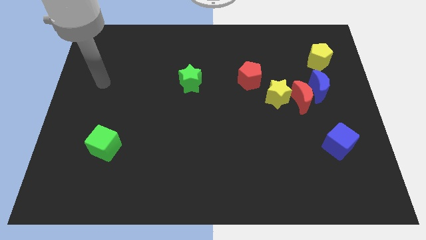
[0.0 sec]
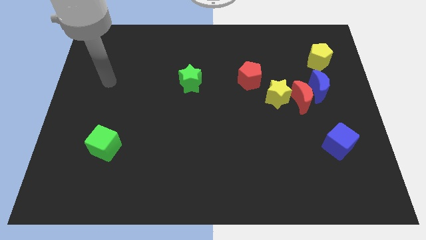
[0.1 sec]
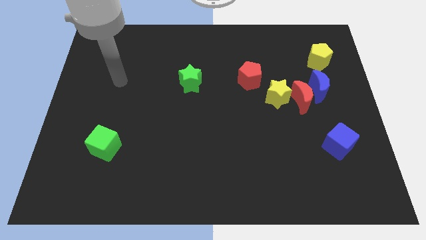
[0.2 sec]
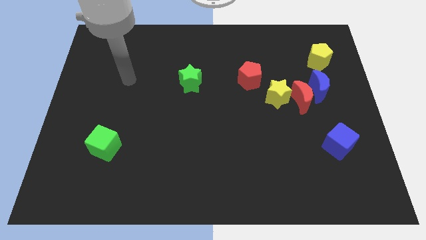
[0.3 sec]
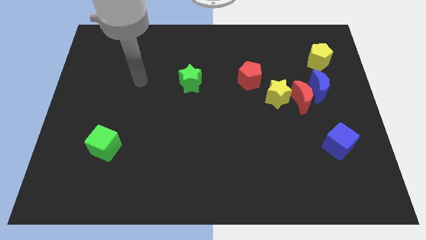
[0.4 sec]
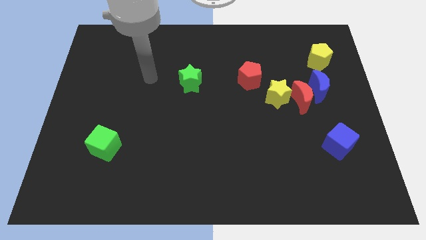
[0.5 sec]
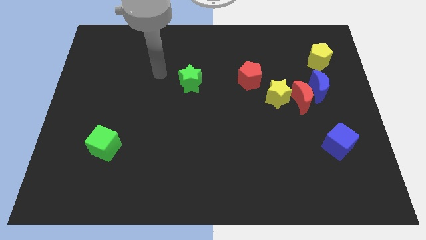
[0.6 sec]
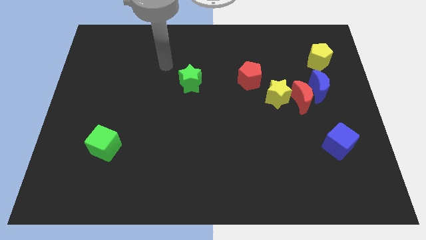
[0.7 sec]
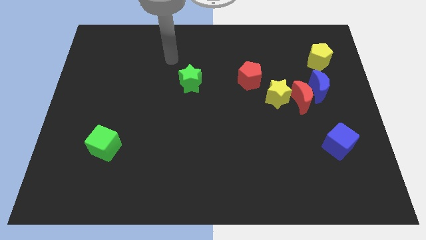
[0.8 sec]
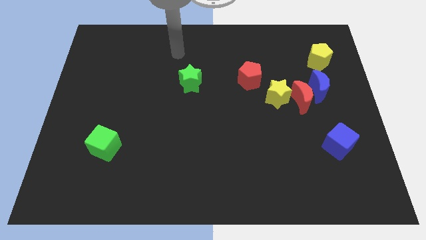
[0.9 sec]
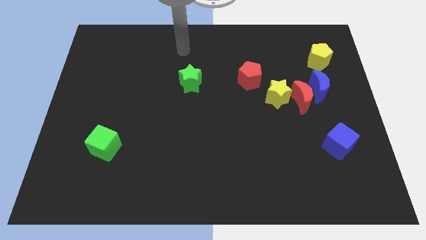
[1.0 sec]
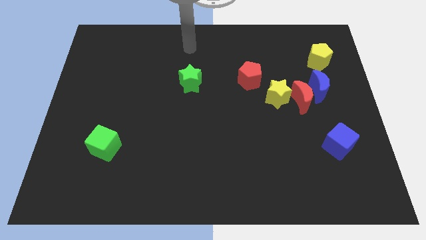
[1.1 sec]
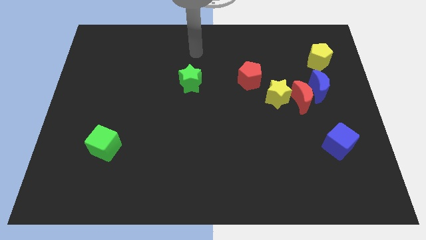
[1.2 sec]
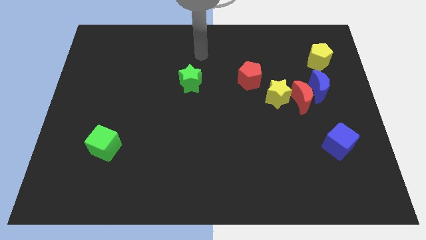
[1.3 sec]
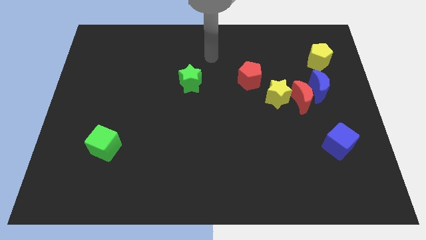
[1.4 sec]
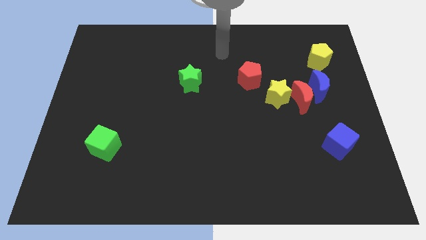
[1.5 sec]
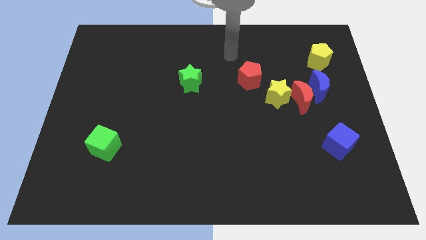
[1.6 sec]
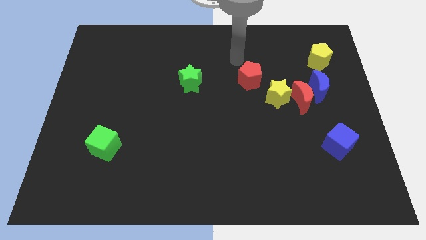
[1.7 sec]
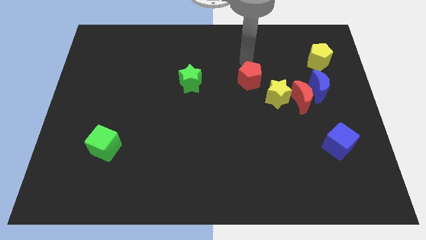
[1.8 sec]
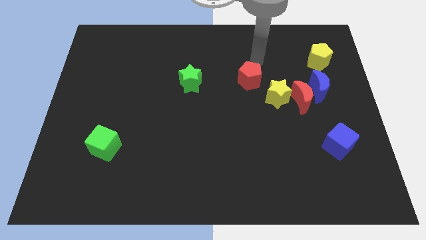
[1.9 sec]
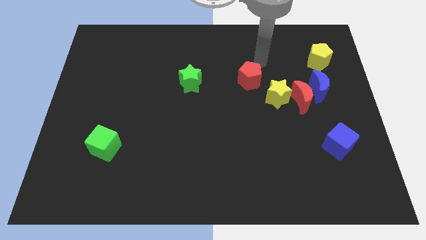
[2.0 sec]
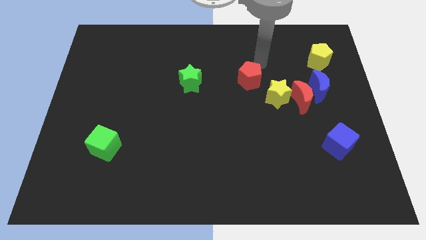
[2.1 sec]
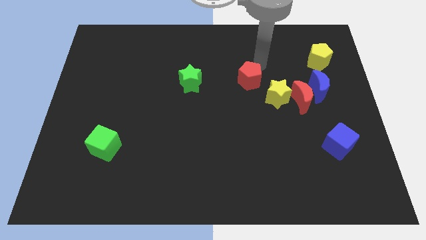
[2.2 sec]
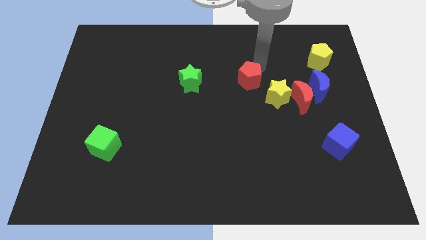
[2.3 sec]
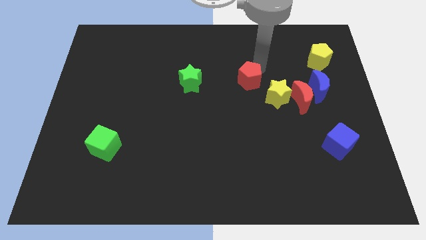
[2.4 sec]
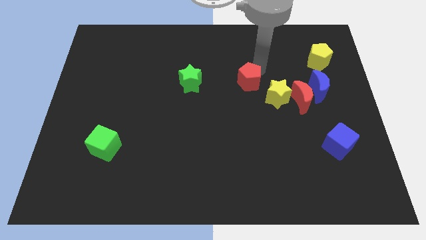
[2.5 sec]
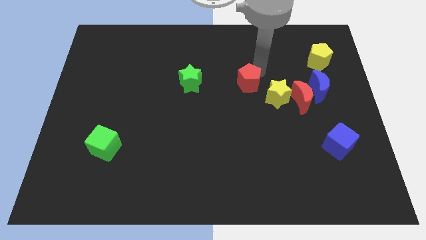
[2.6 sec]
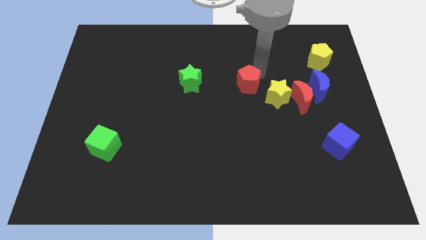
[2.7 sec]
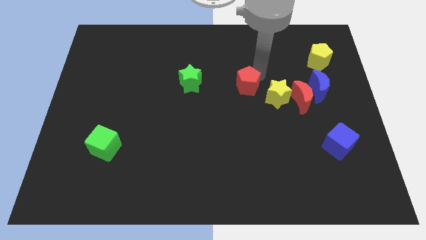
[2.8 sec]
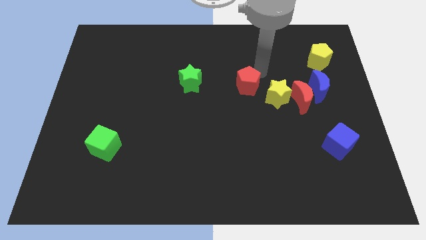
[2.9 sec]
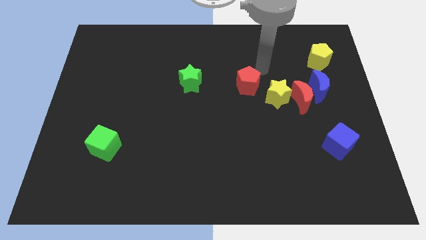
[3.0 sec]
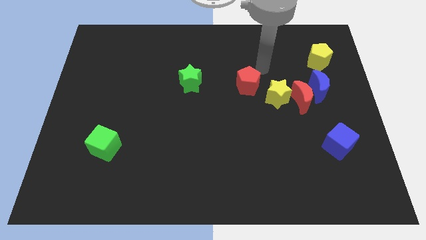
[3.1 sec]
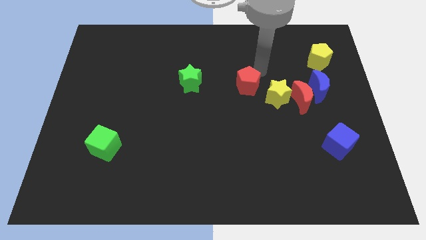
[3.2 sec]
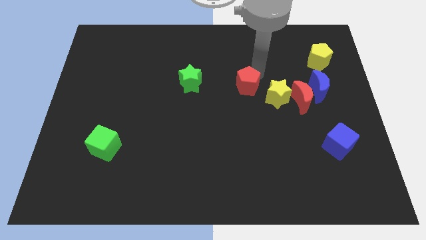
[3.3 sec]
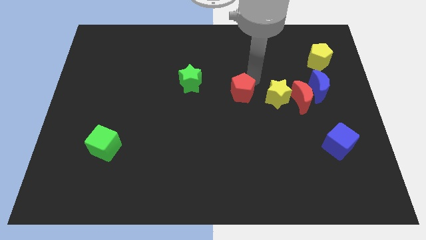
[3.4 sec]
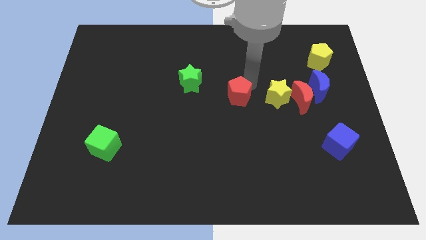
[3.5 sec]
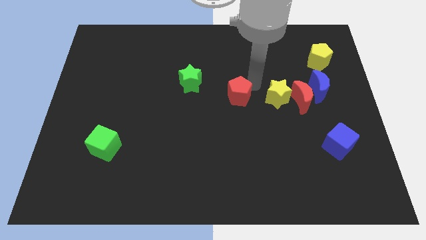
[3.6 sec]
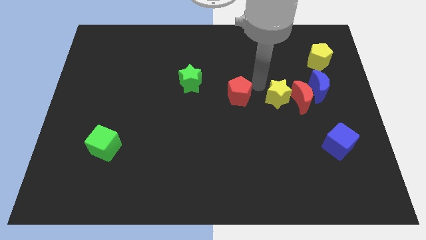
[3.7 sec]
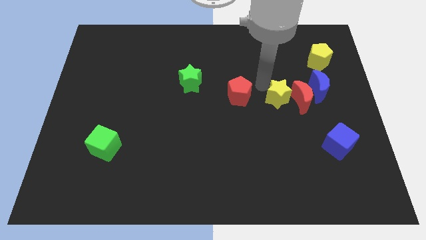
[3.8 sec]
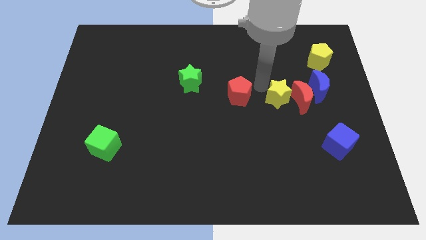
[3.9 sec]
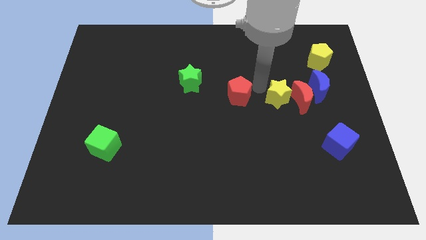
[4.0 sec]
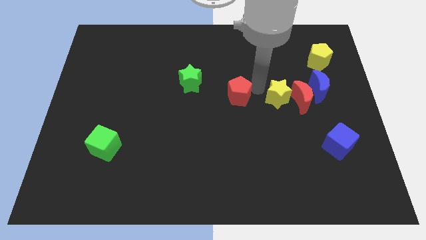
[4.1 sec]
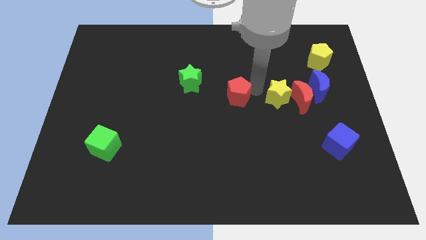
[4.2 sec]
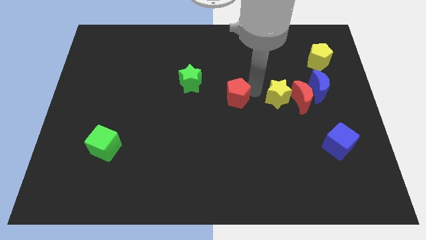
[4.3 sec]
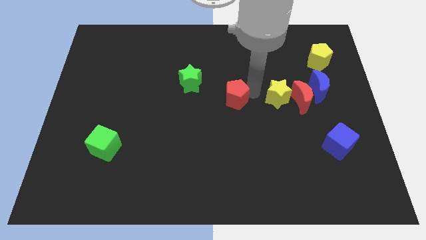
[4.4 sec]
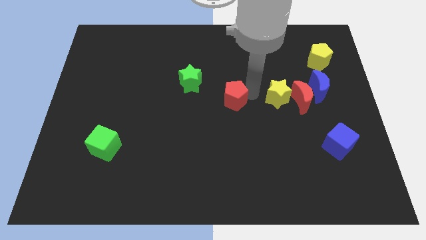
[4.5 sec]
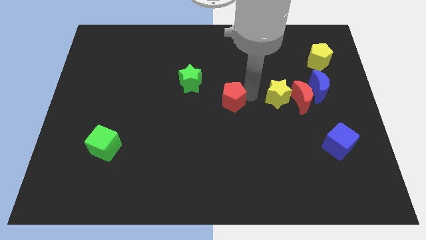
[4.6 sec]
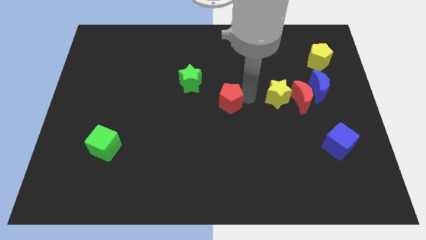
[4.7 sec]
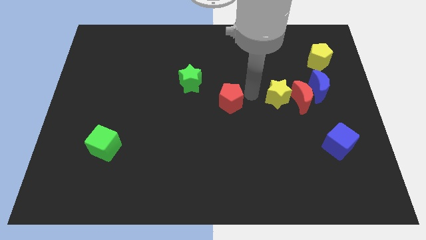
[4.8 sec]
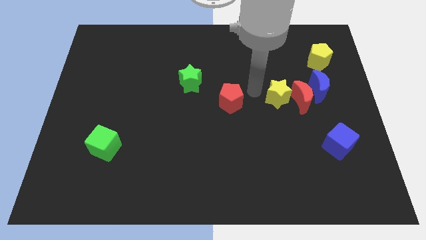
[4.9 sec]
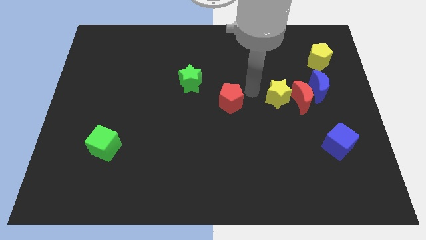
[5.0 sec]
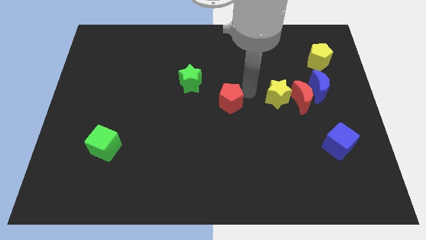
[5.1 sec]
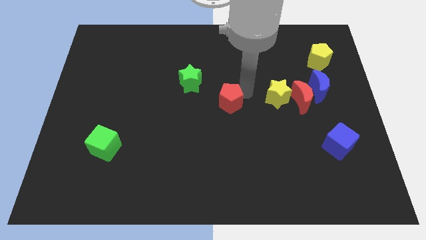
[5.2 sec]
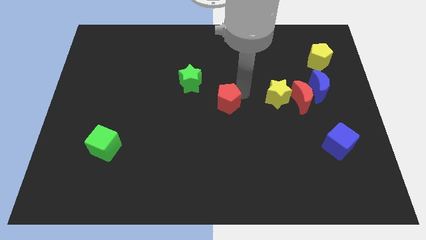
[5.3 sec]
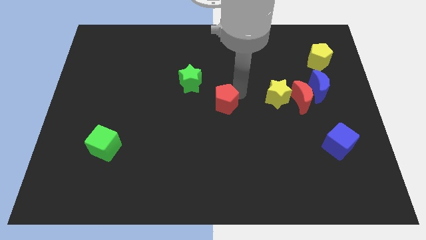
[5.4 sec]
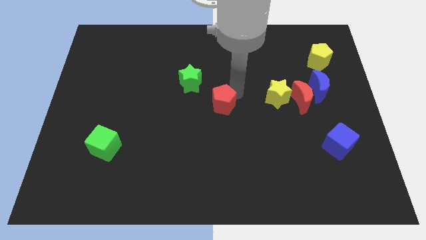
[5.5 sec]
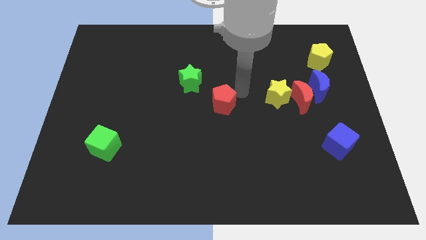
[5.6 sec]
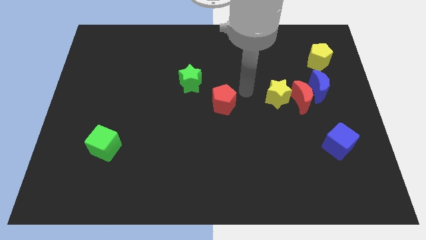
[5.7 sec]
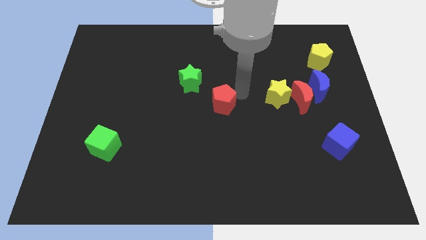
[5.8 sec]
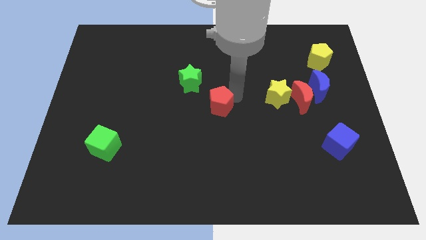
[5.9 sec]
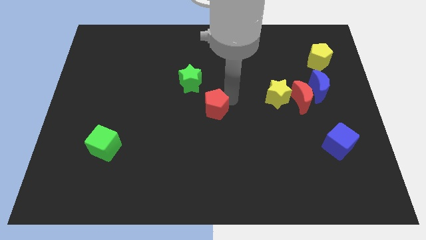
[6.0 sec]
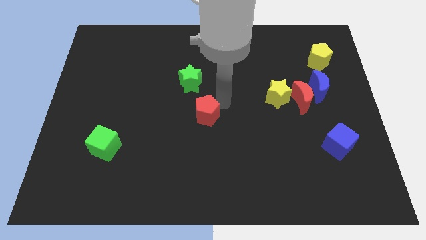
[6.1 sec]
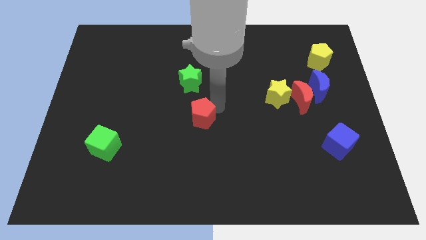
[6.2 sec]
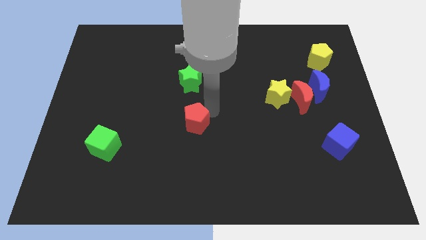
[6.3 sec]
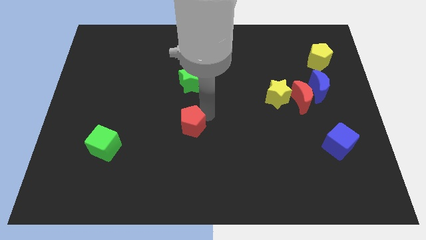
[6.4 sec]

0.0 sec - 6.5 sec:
move the red pentagon diagonally down and to the left

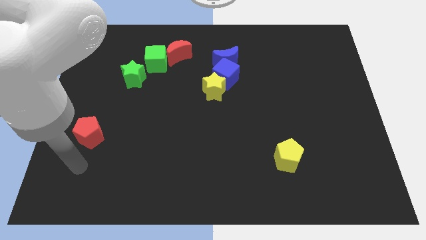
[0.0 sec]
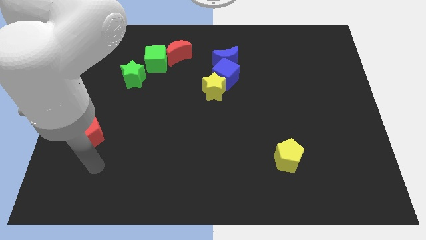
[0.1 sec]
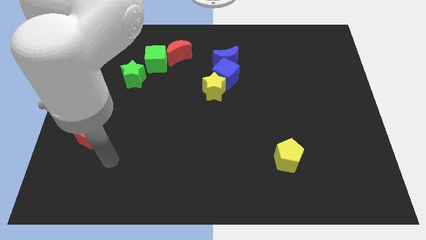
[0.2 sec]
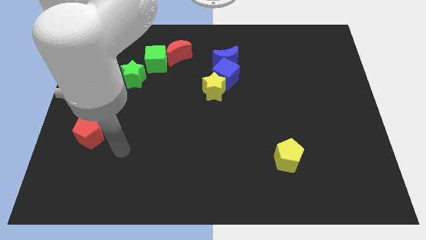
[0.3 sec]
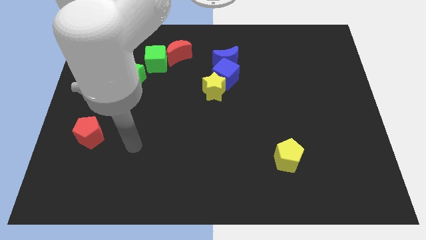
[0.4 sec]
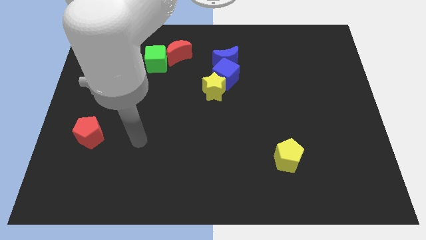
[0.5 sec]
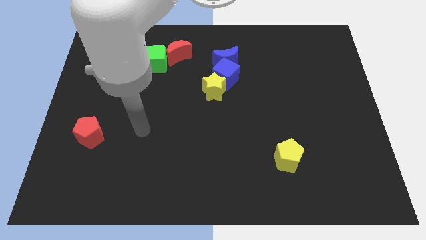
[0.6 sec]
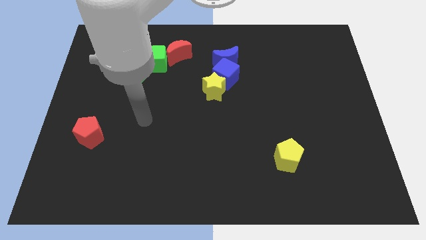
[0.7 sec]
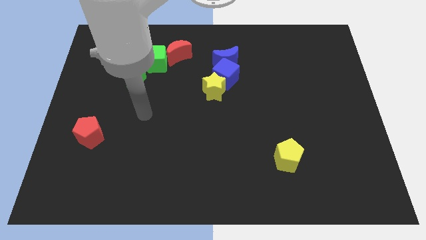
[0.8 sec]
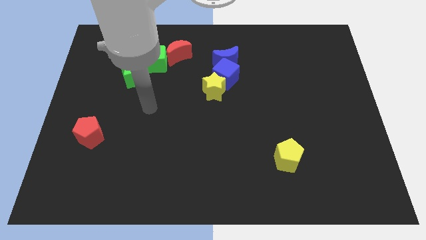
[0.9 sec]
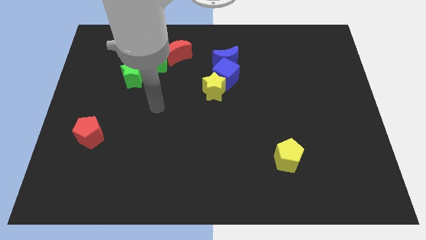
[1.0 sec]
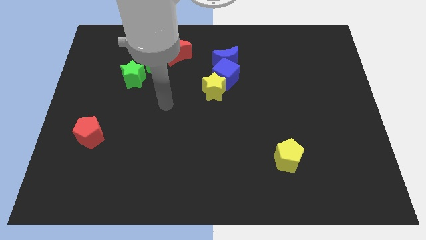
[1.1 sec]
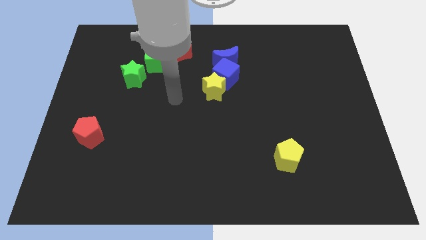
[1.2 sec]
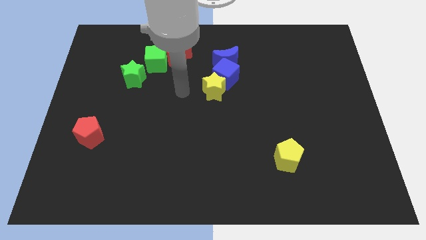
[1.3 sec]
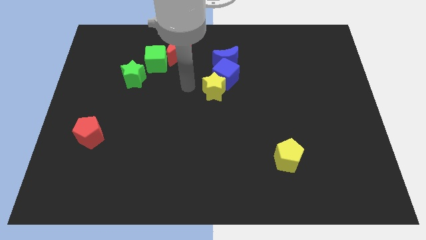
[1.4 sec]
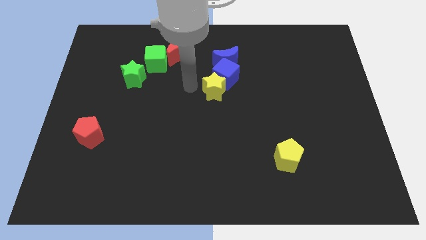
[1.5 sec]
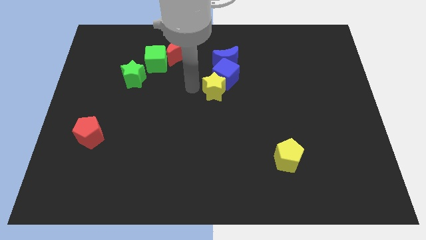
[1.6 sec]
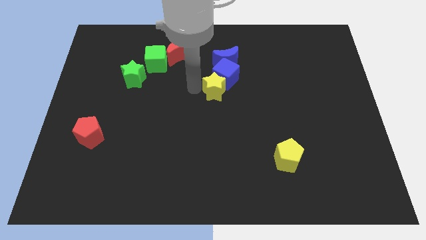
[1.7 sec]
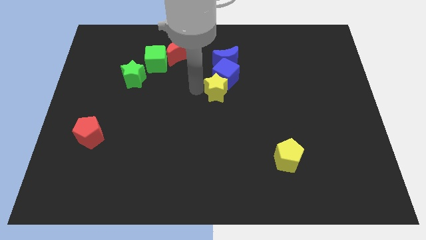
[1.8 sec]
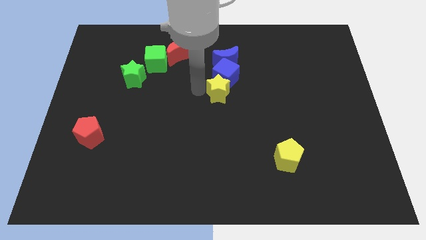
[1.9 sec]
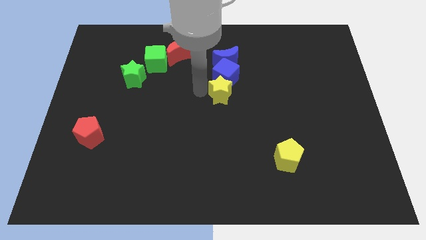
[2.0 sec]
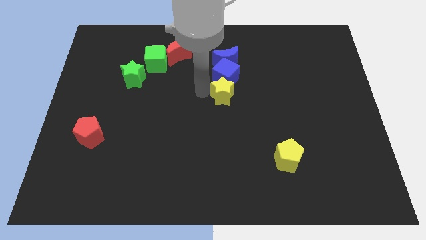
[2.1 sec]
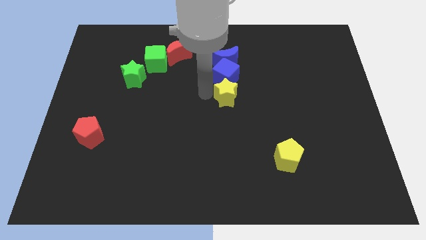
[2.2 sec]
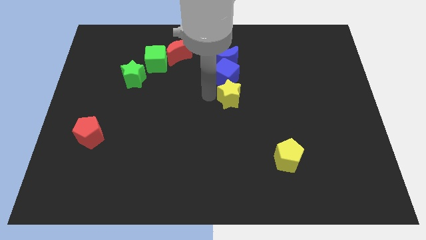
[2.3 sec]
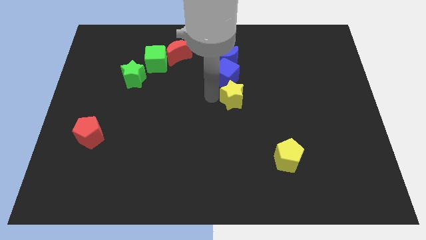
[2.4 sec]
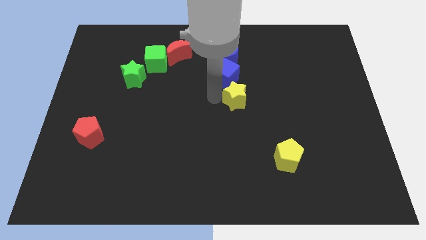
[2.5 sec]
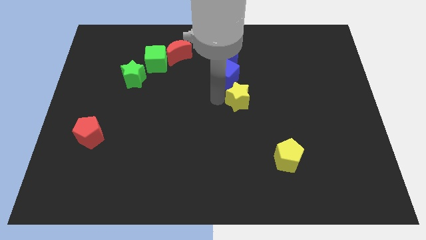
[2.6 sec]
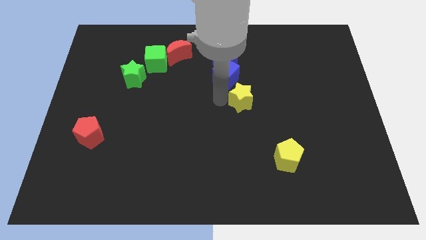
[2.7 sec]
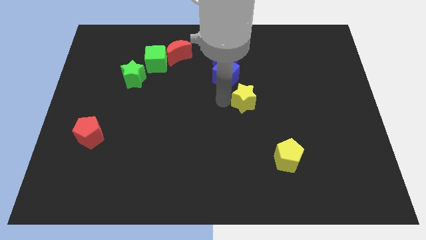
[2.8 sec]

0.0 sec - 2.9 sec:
move the yellow star a little bit right
